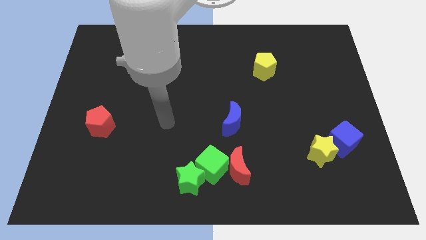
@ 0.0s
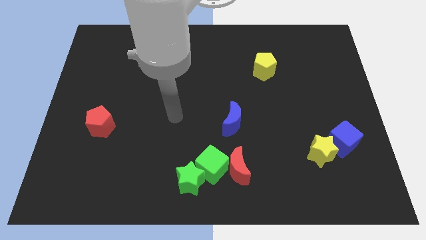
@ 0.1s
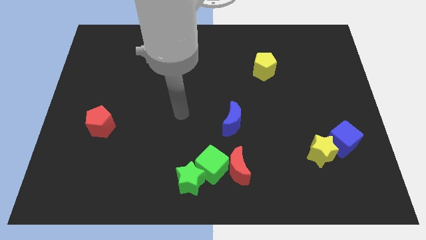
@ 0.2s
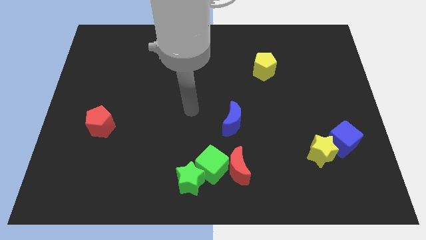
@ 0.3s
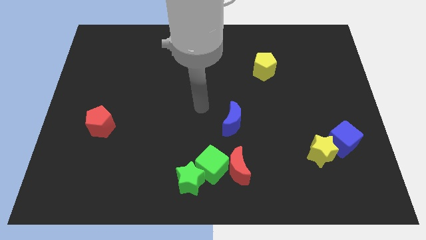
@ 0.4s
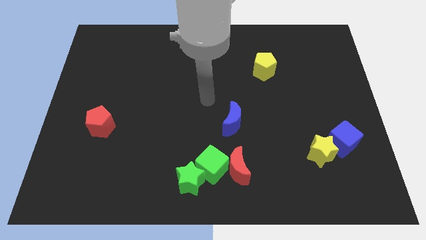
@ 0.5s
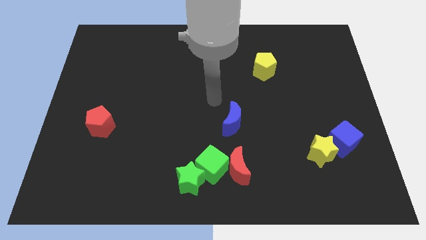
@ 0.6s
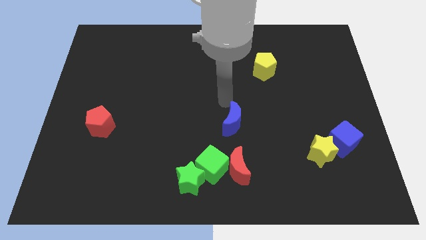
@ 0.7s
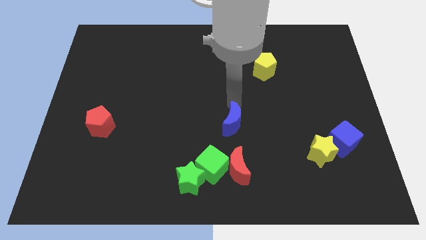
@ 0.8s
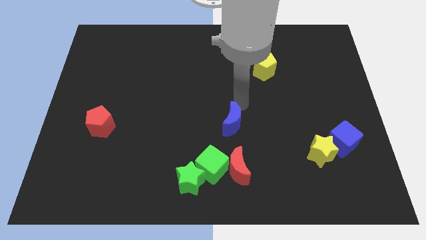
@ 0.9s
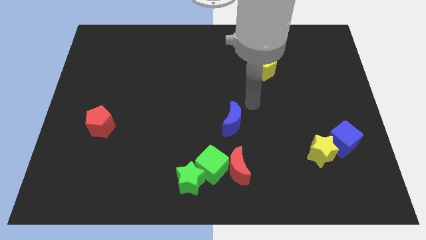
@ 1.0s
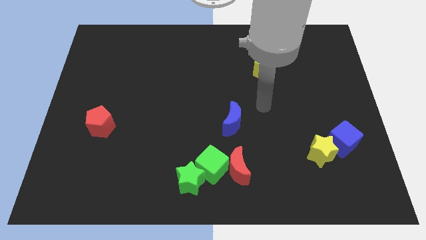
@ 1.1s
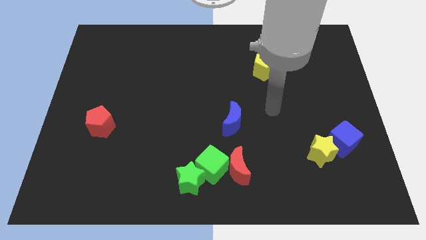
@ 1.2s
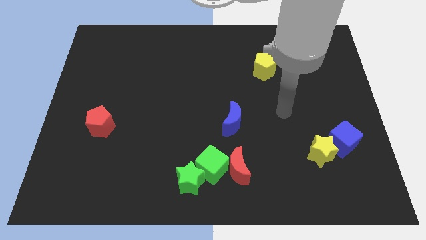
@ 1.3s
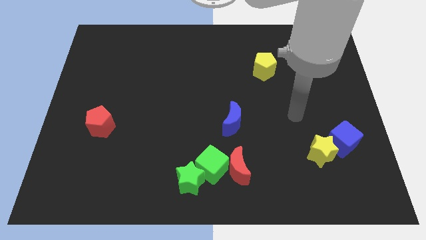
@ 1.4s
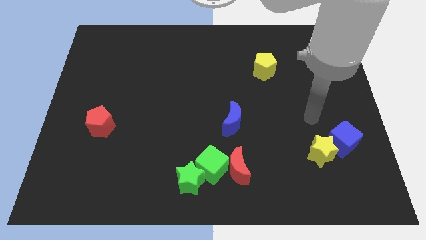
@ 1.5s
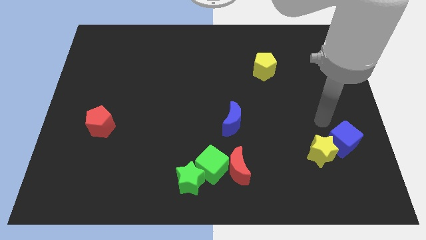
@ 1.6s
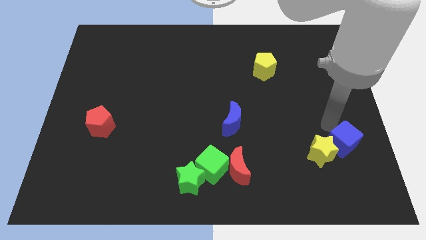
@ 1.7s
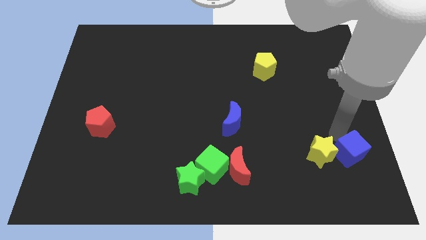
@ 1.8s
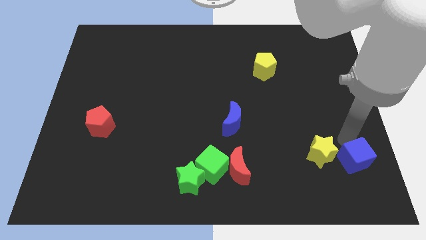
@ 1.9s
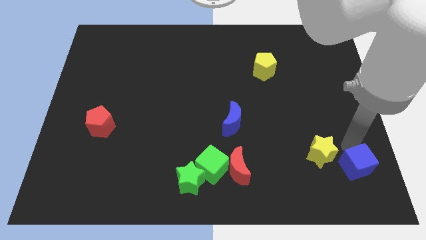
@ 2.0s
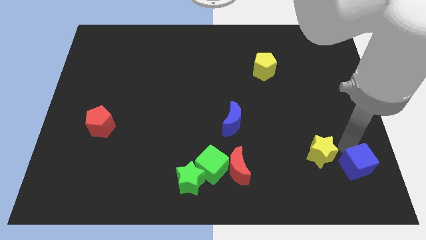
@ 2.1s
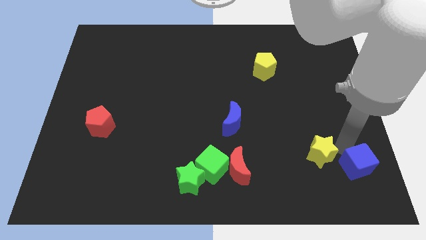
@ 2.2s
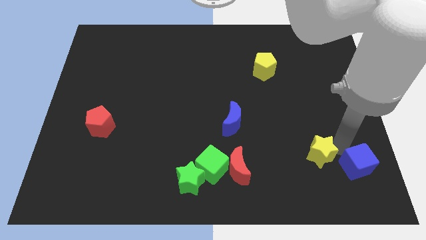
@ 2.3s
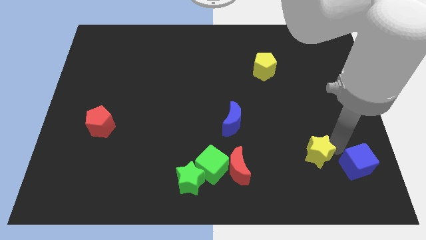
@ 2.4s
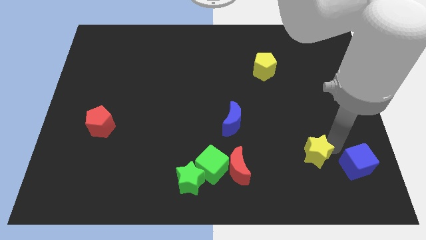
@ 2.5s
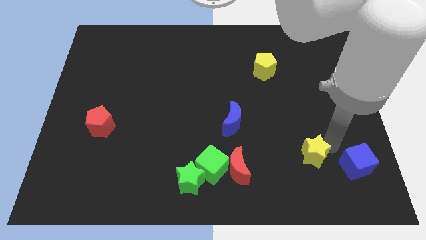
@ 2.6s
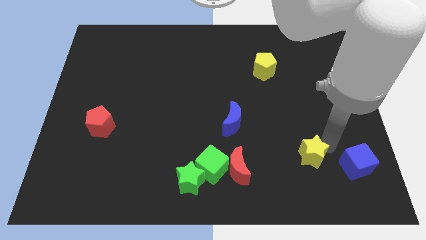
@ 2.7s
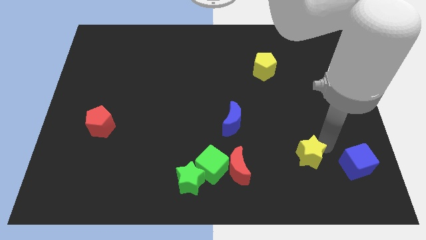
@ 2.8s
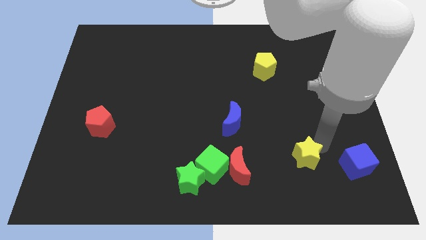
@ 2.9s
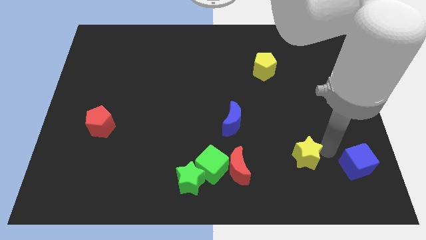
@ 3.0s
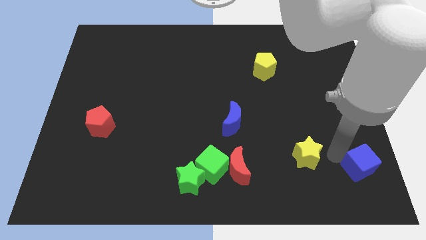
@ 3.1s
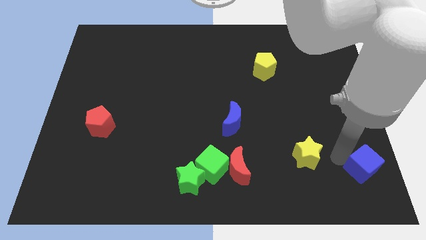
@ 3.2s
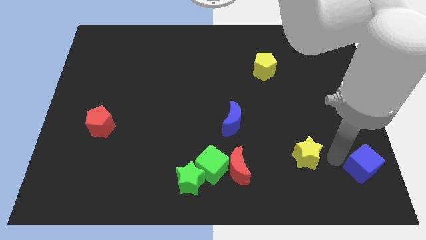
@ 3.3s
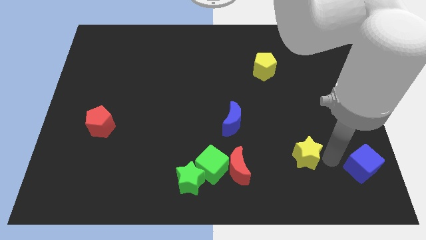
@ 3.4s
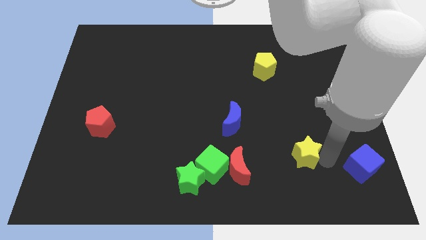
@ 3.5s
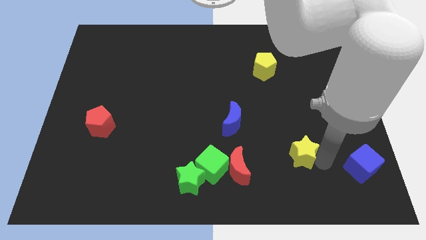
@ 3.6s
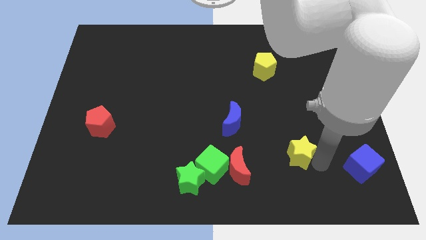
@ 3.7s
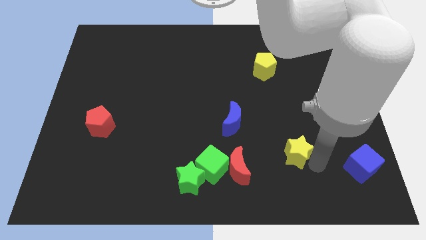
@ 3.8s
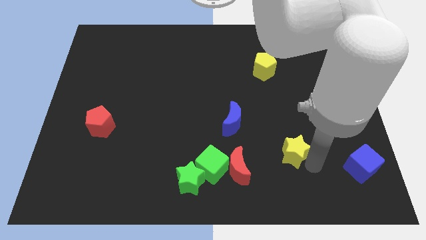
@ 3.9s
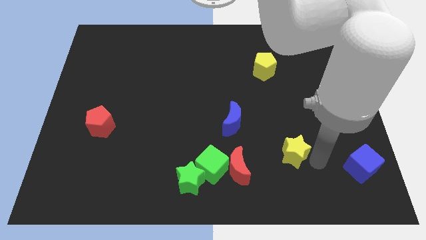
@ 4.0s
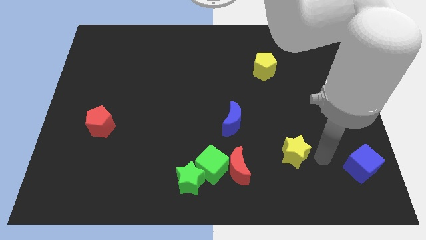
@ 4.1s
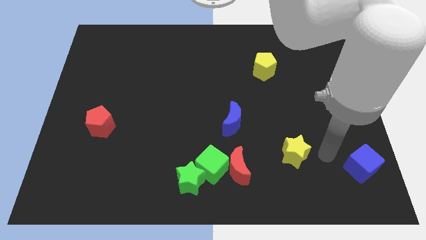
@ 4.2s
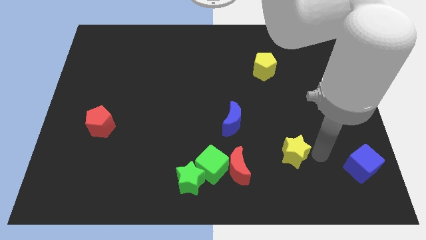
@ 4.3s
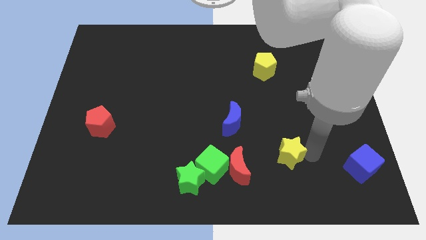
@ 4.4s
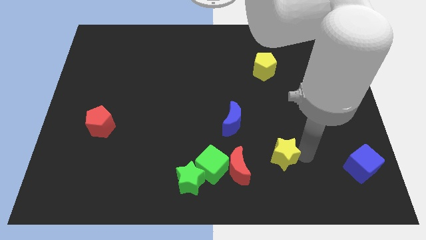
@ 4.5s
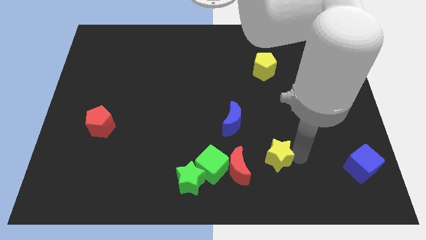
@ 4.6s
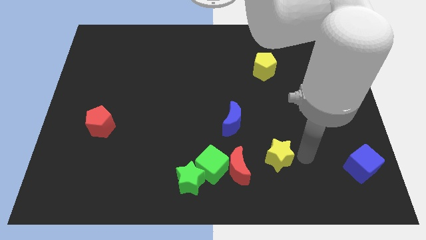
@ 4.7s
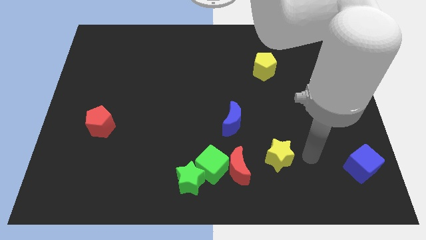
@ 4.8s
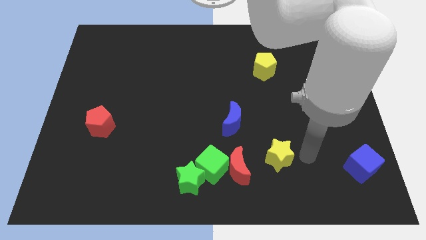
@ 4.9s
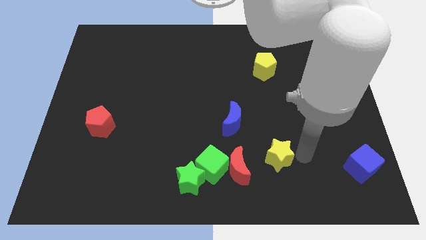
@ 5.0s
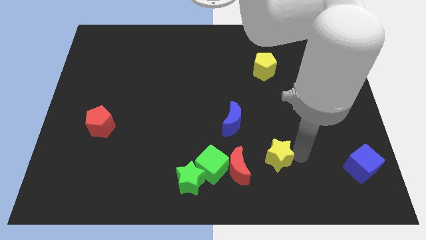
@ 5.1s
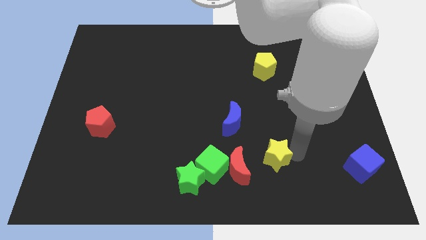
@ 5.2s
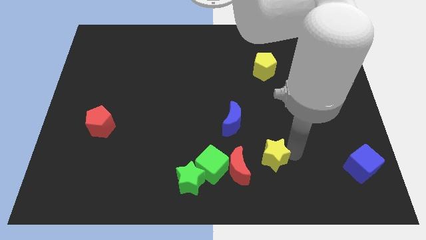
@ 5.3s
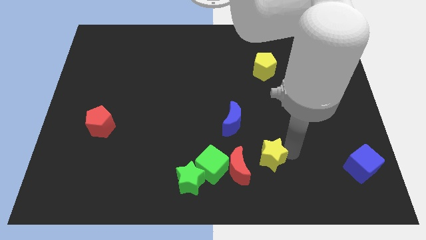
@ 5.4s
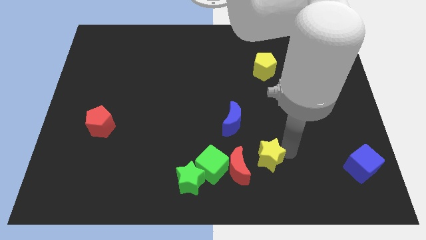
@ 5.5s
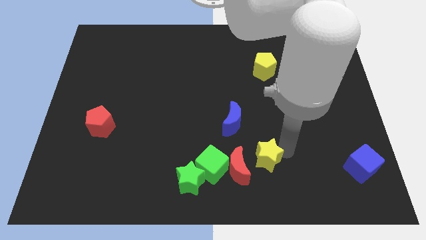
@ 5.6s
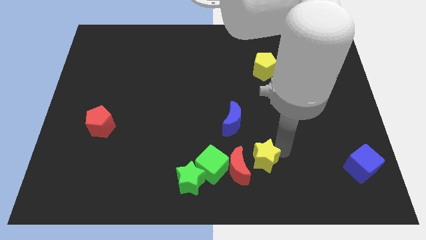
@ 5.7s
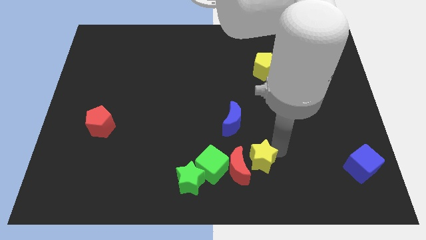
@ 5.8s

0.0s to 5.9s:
push the yellow star to the red moon

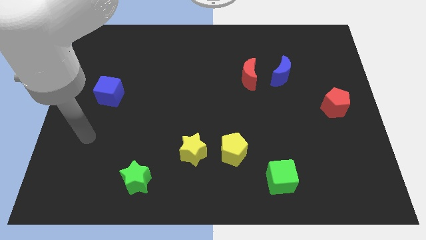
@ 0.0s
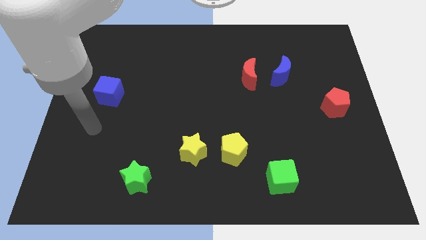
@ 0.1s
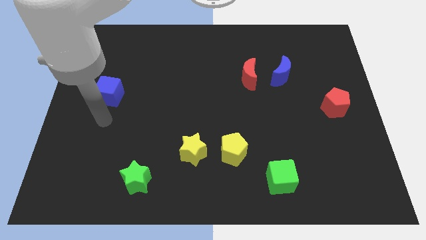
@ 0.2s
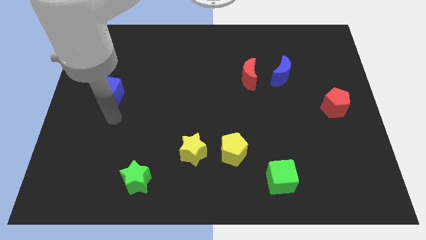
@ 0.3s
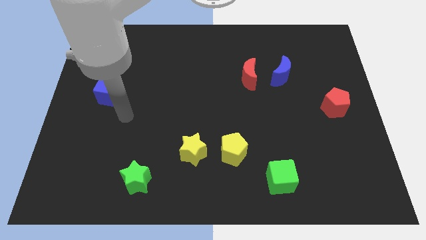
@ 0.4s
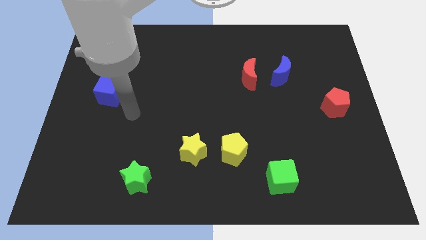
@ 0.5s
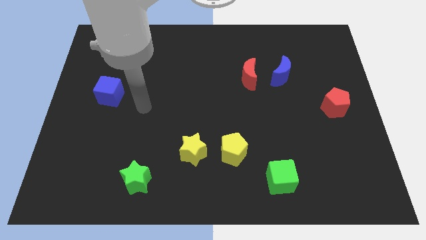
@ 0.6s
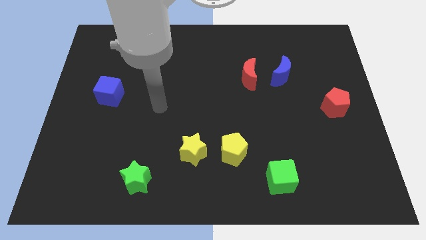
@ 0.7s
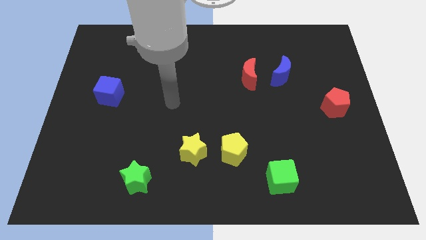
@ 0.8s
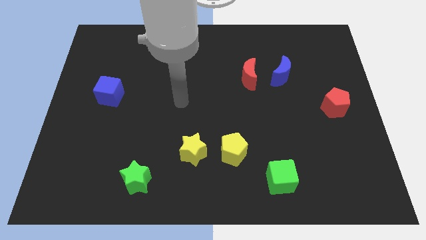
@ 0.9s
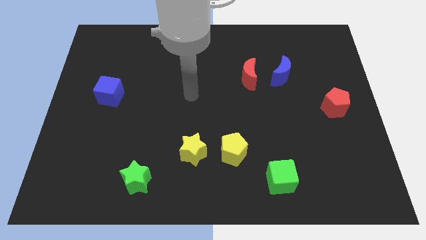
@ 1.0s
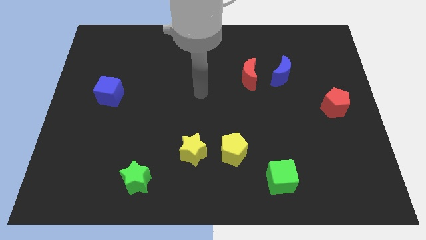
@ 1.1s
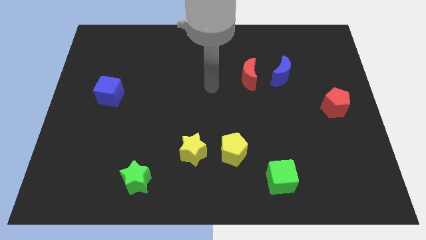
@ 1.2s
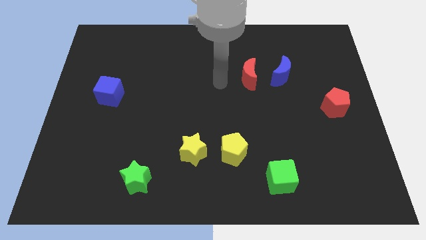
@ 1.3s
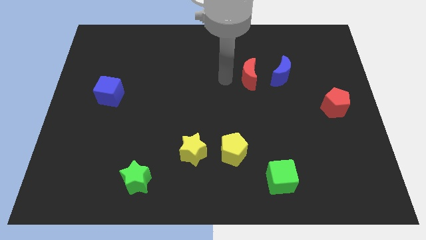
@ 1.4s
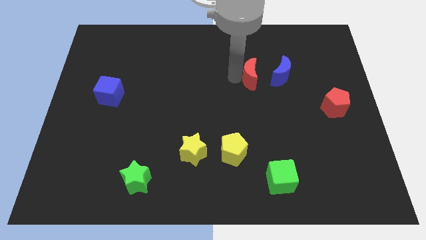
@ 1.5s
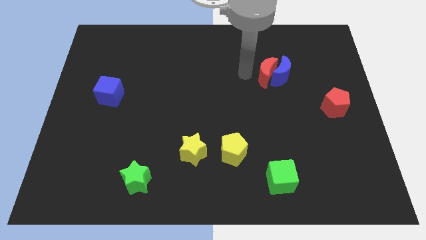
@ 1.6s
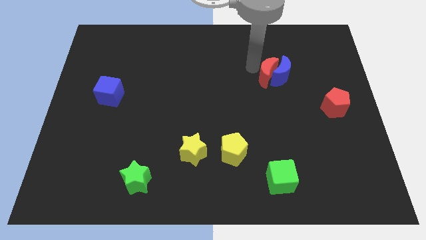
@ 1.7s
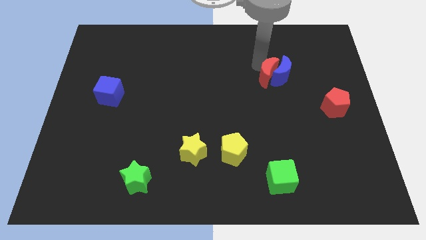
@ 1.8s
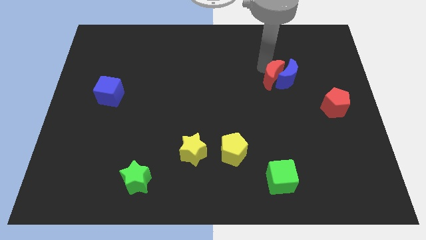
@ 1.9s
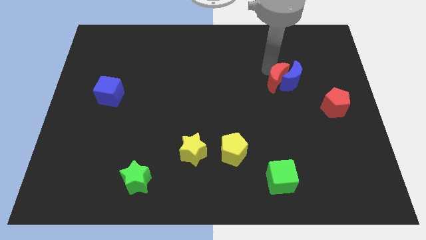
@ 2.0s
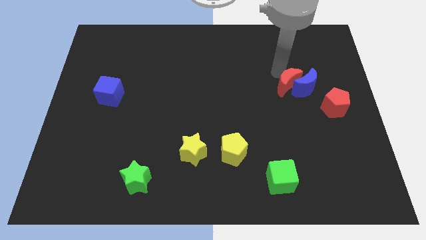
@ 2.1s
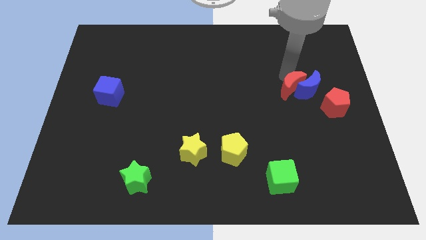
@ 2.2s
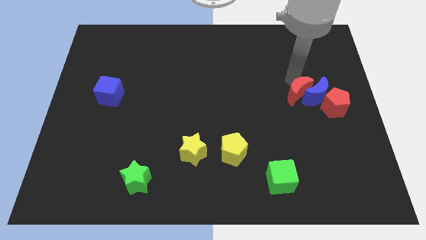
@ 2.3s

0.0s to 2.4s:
slide the blue moon close to the red pentagon
